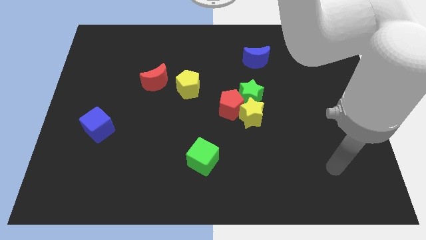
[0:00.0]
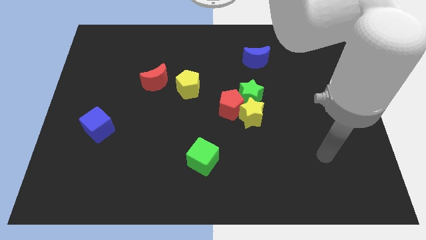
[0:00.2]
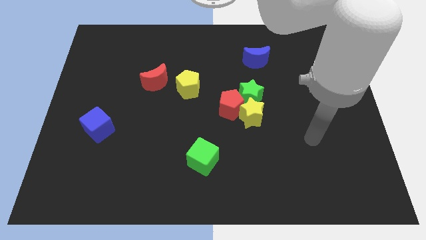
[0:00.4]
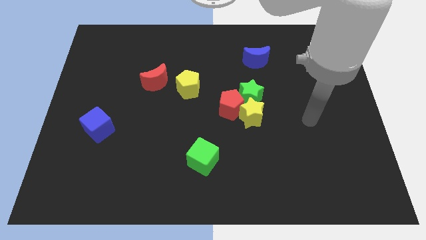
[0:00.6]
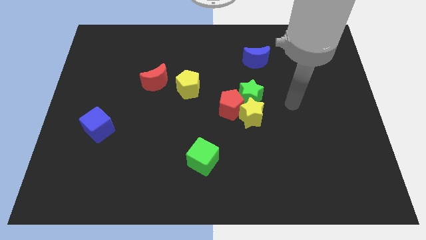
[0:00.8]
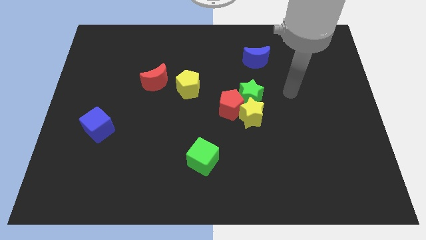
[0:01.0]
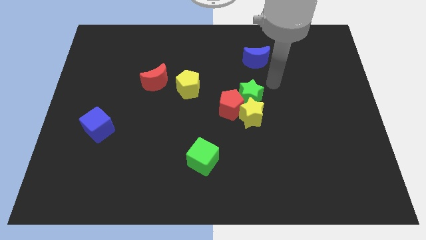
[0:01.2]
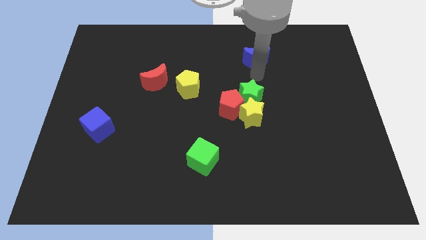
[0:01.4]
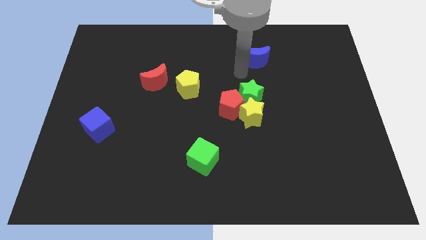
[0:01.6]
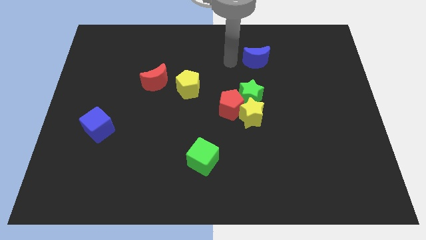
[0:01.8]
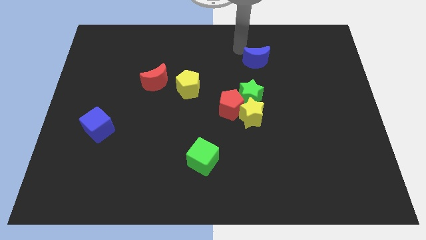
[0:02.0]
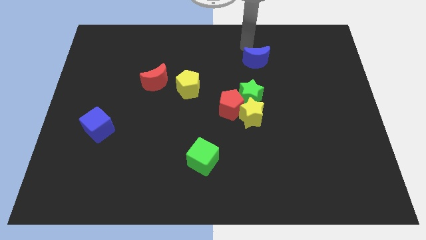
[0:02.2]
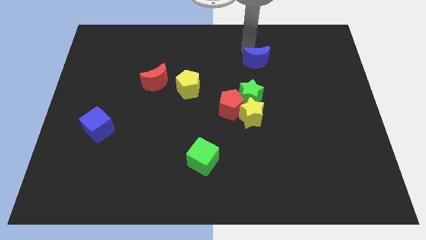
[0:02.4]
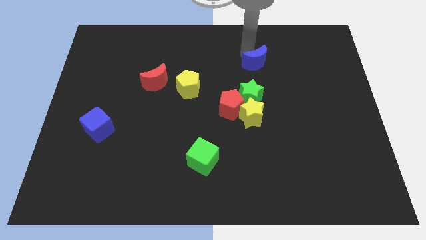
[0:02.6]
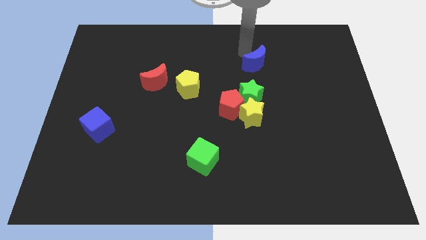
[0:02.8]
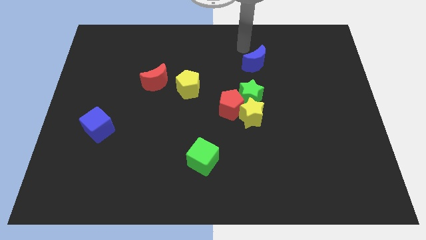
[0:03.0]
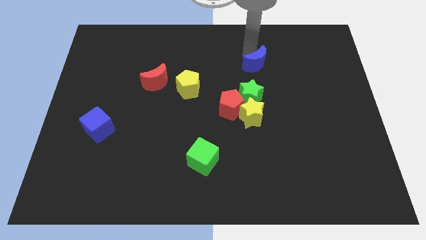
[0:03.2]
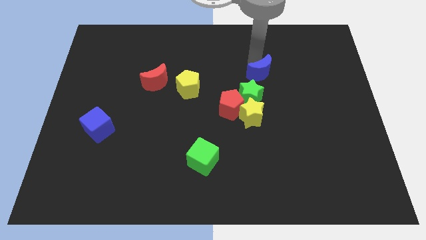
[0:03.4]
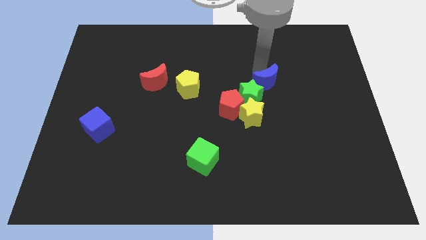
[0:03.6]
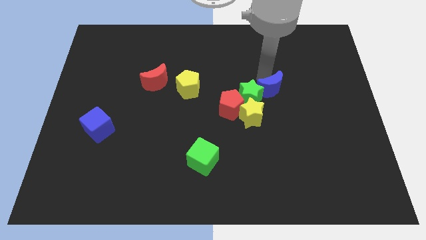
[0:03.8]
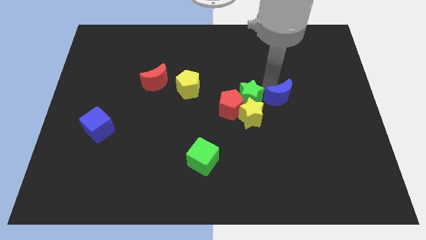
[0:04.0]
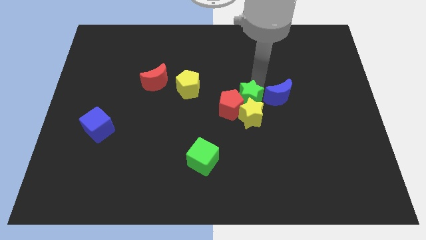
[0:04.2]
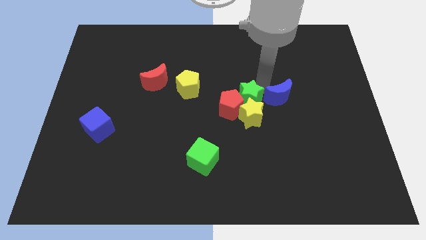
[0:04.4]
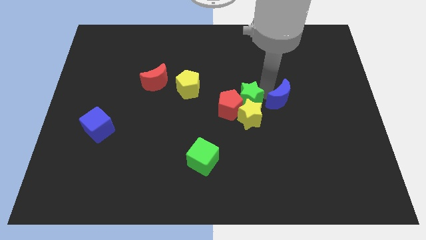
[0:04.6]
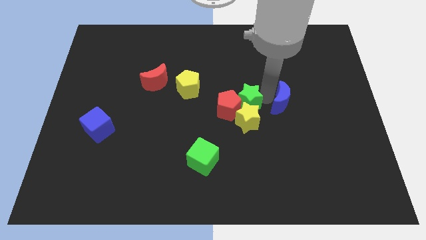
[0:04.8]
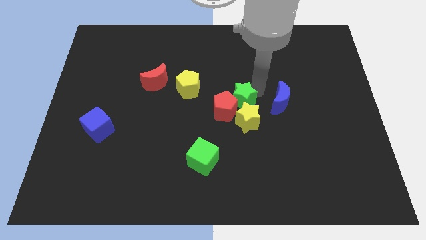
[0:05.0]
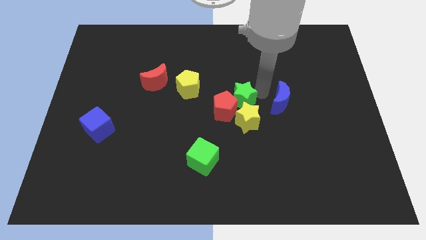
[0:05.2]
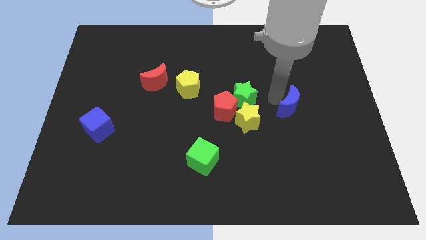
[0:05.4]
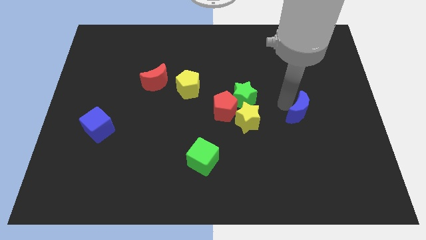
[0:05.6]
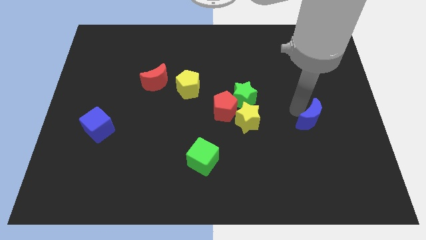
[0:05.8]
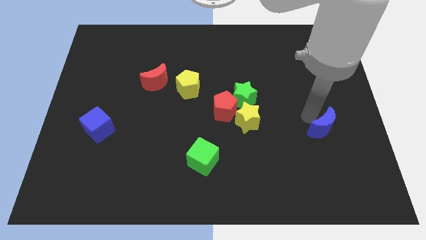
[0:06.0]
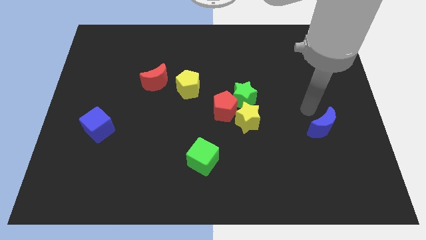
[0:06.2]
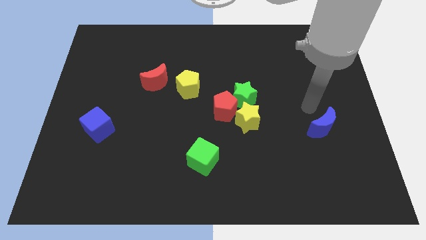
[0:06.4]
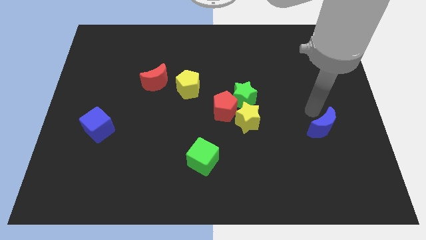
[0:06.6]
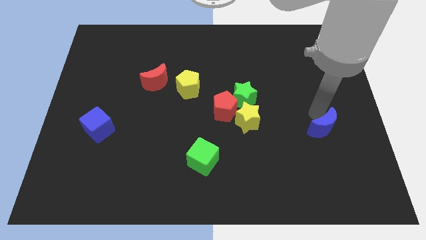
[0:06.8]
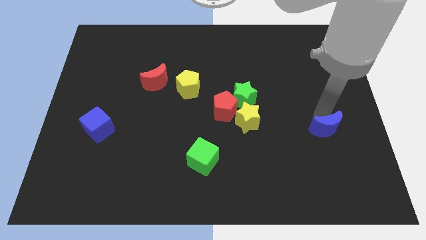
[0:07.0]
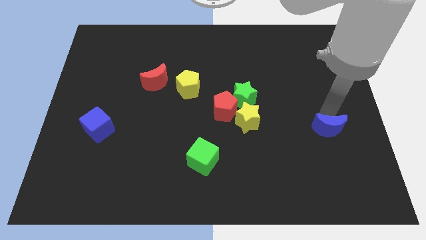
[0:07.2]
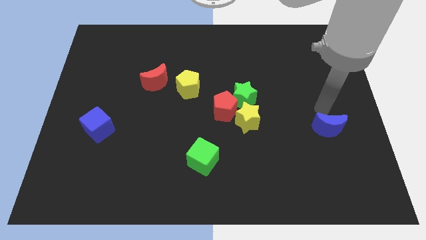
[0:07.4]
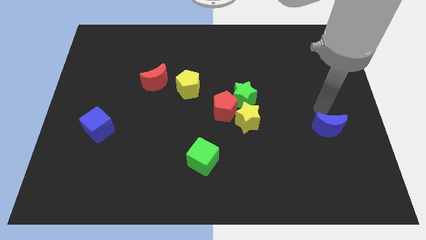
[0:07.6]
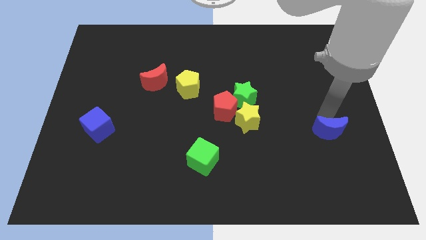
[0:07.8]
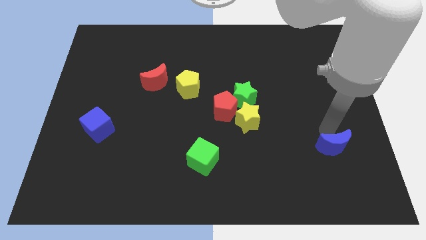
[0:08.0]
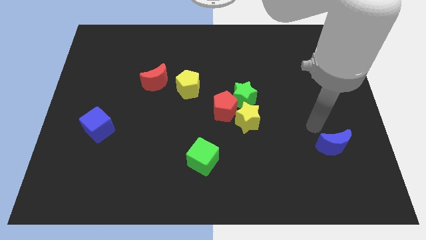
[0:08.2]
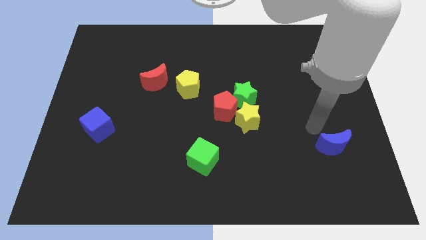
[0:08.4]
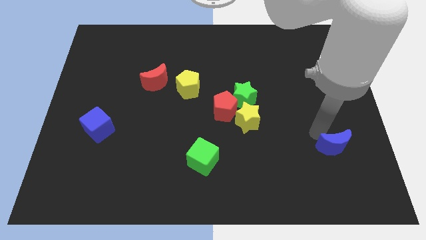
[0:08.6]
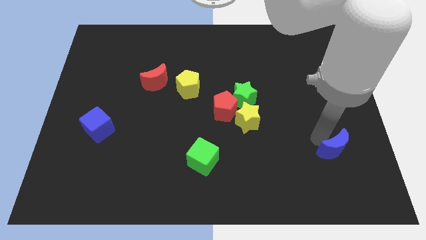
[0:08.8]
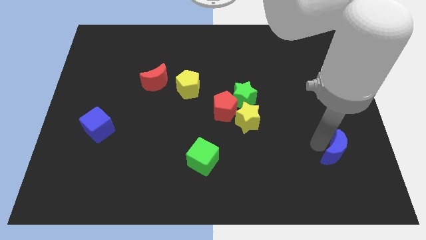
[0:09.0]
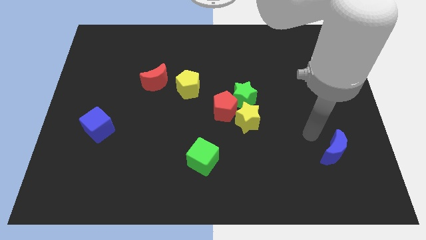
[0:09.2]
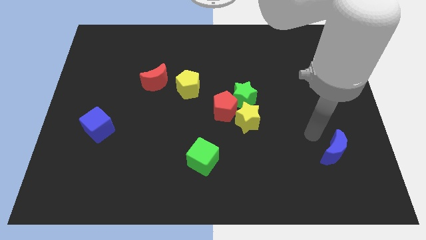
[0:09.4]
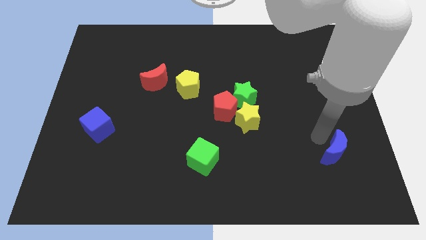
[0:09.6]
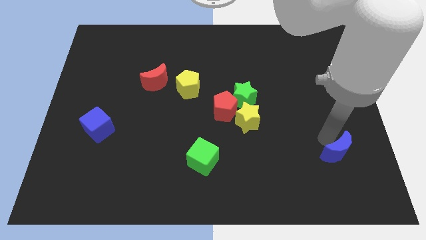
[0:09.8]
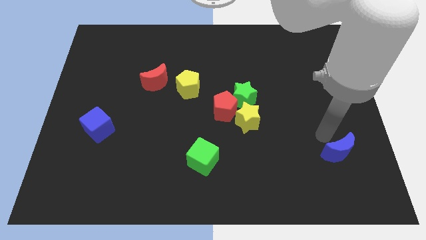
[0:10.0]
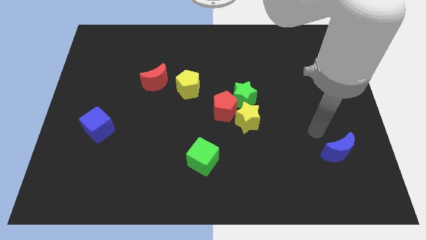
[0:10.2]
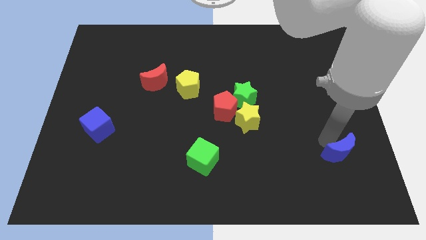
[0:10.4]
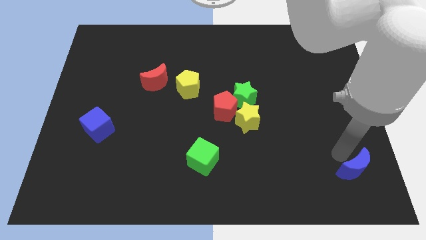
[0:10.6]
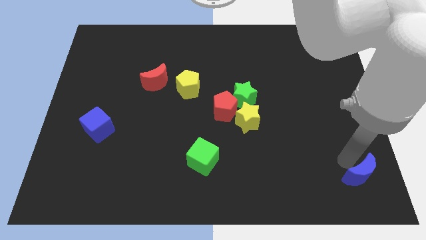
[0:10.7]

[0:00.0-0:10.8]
move the blue moon to the bottom right of the board

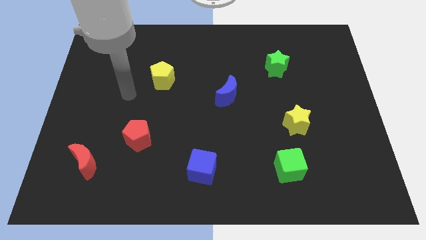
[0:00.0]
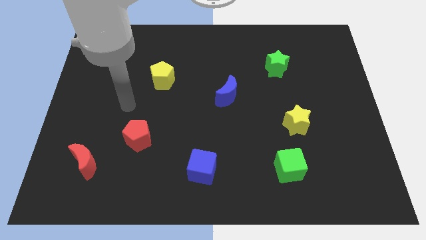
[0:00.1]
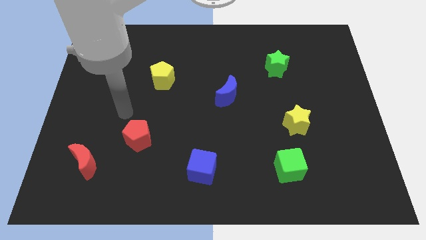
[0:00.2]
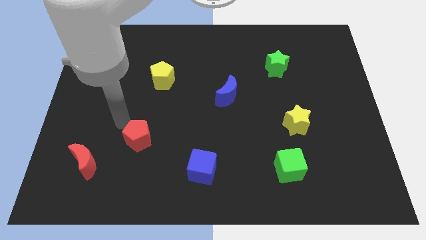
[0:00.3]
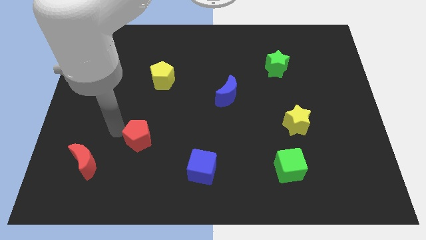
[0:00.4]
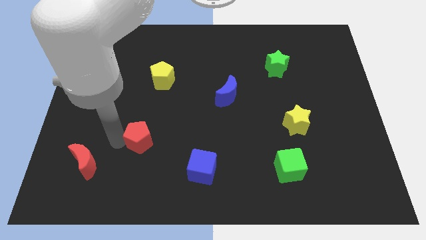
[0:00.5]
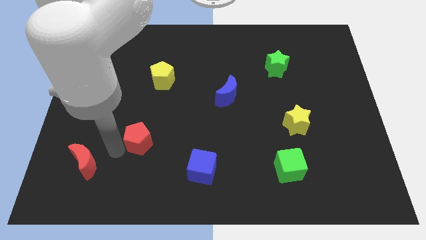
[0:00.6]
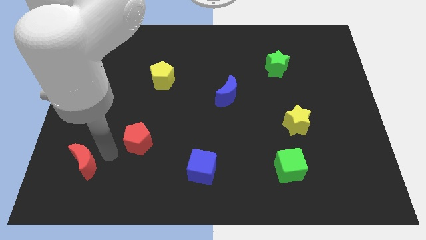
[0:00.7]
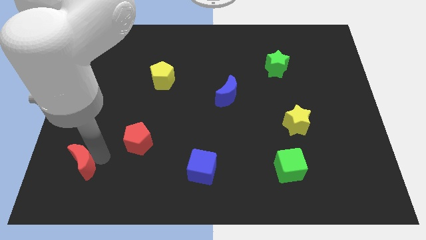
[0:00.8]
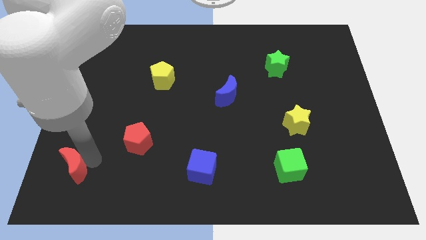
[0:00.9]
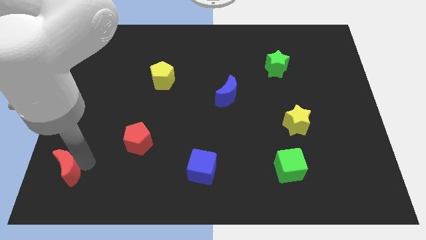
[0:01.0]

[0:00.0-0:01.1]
push the red moon to the bottom left corner
